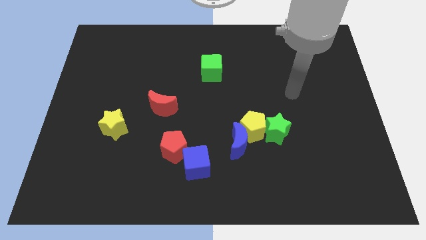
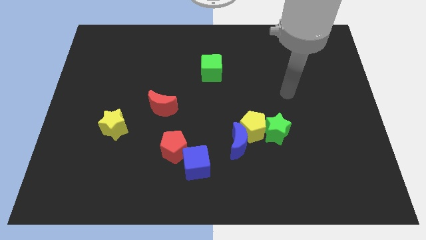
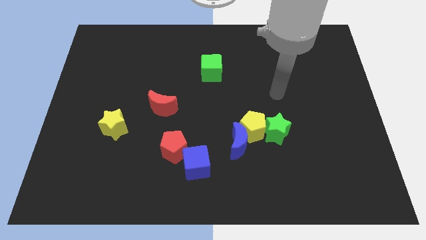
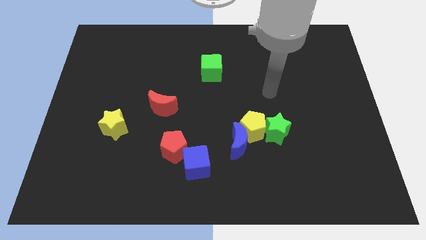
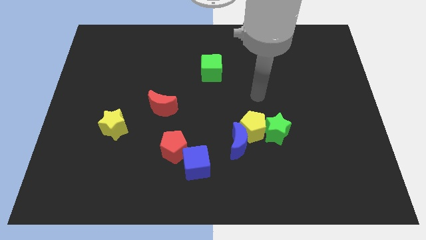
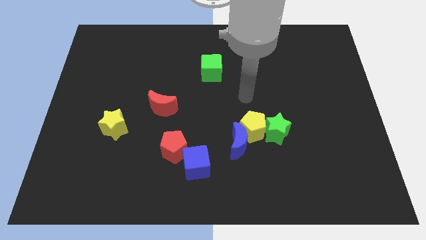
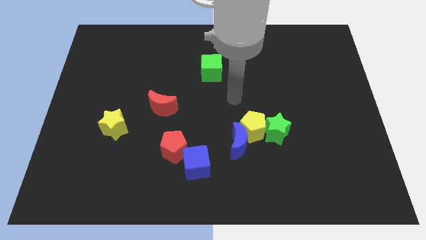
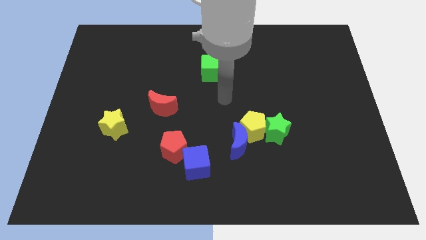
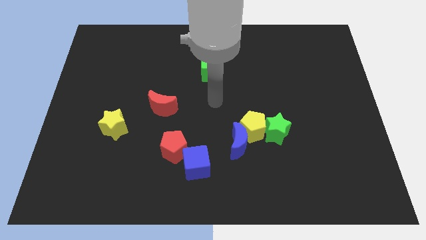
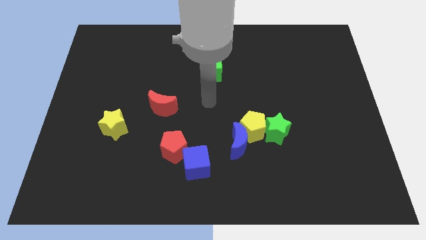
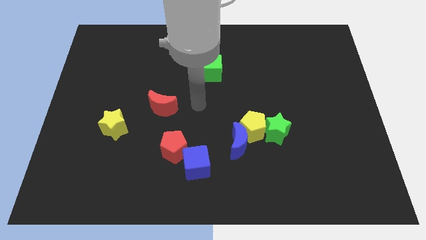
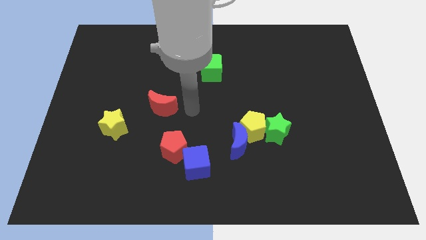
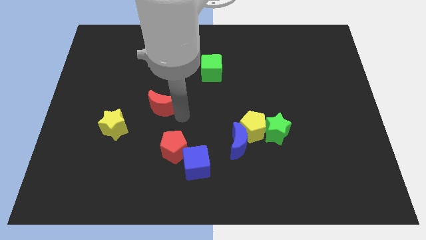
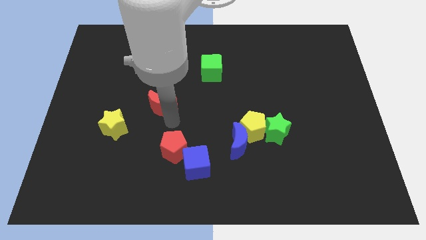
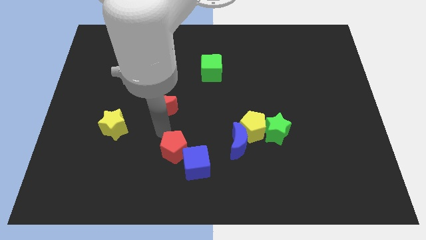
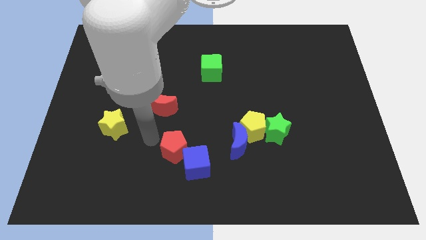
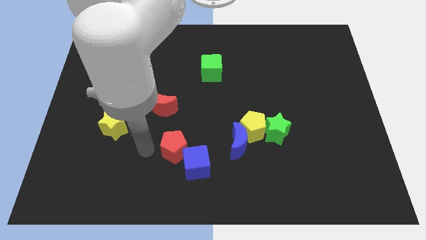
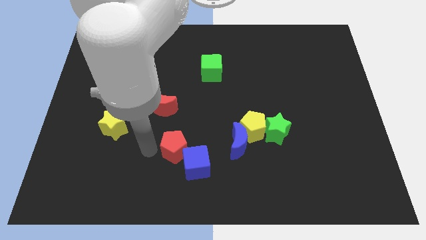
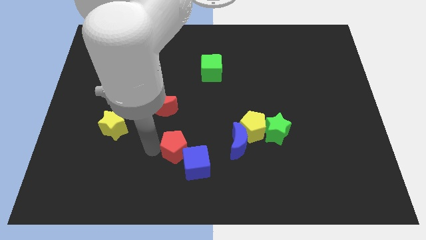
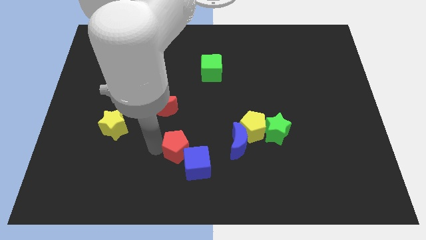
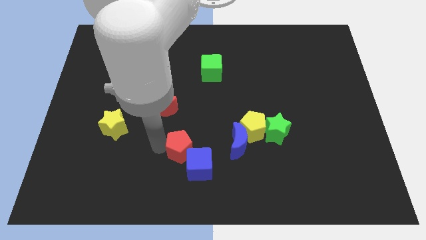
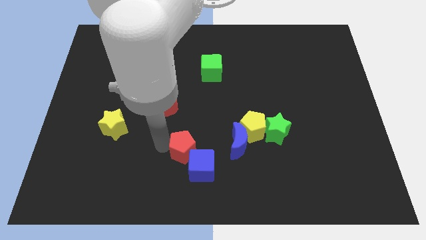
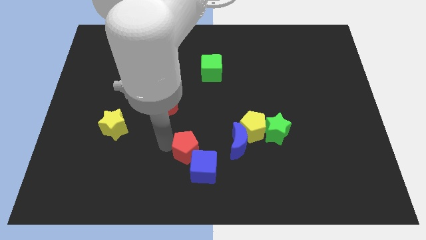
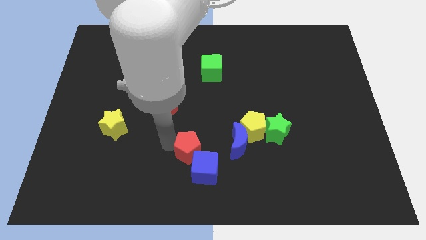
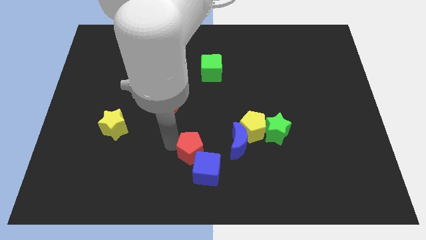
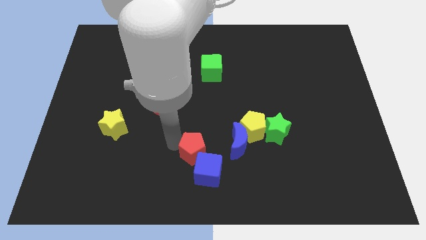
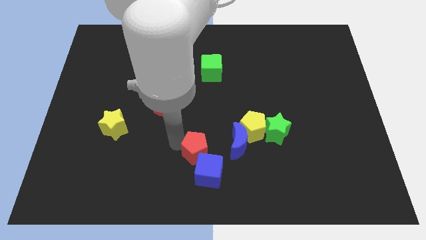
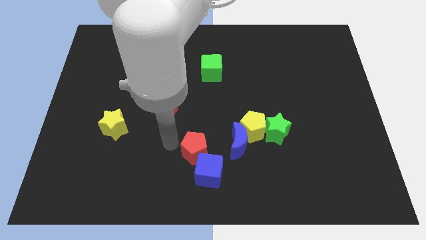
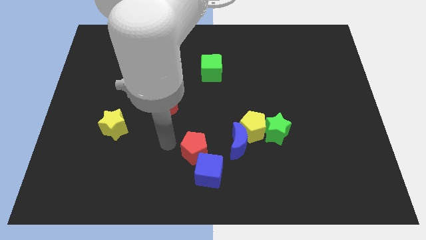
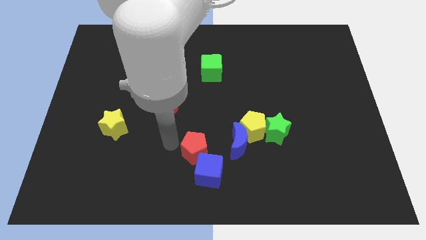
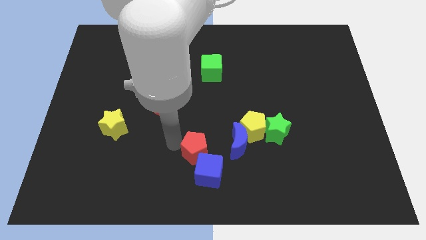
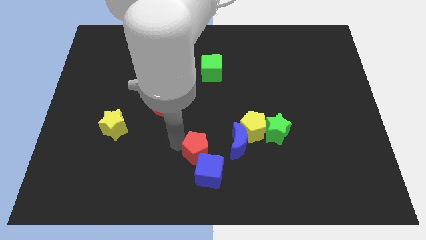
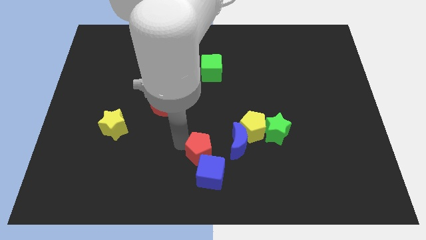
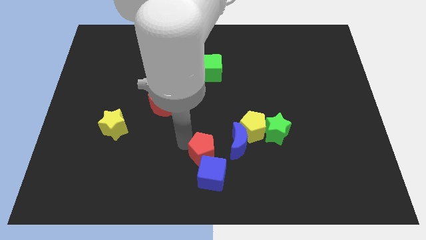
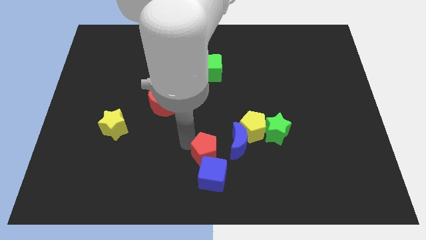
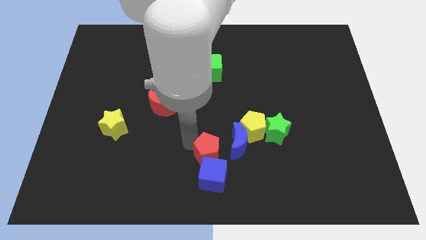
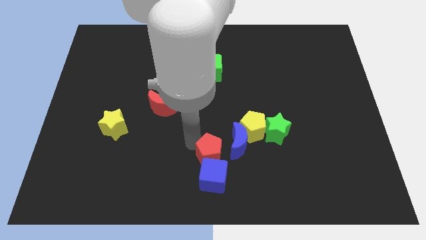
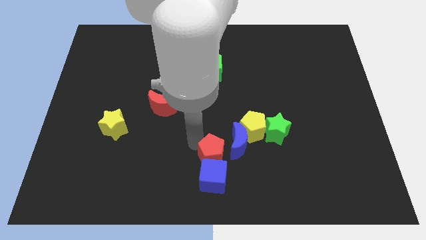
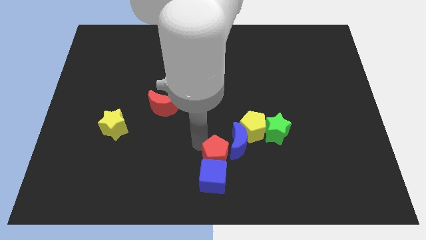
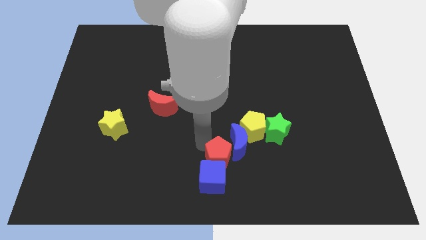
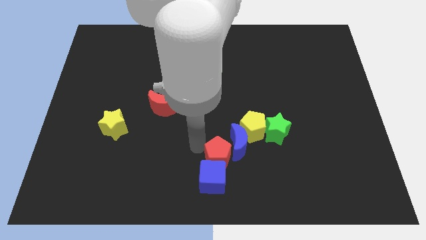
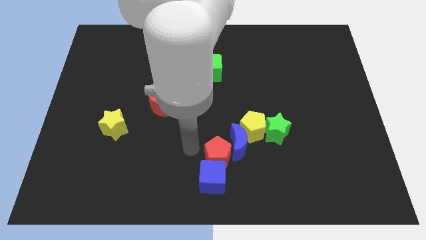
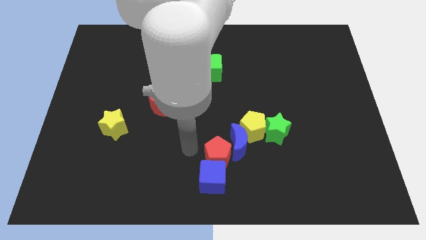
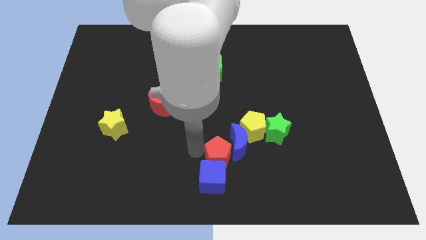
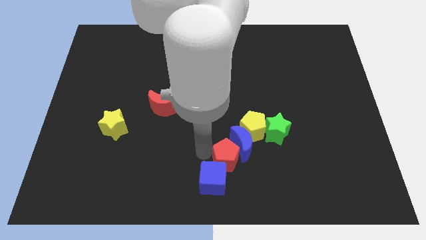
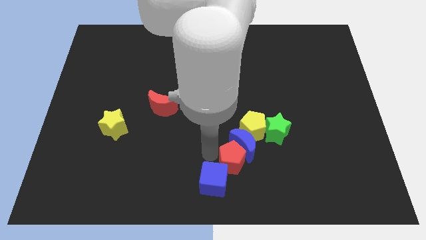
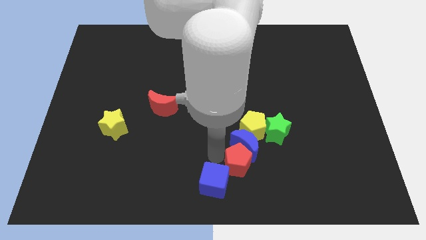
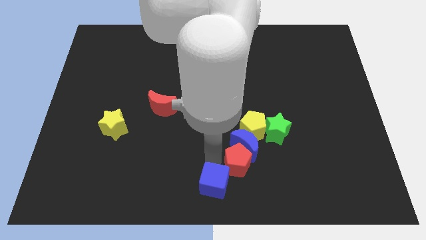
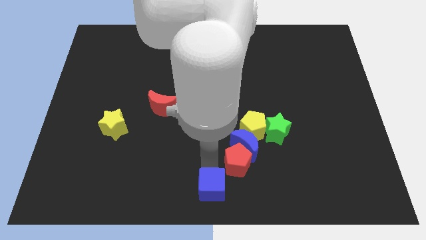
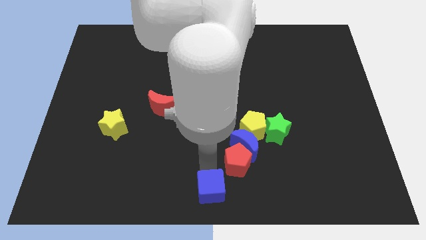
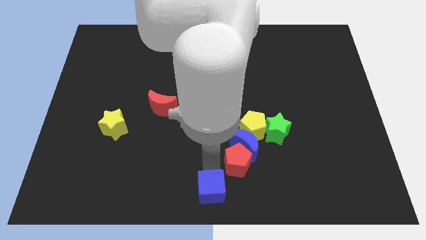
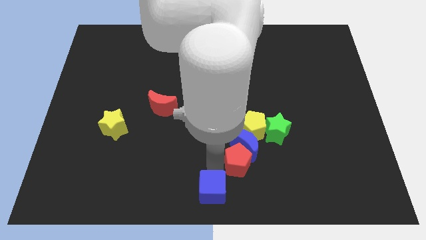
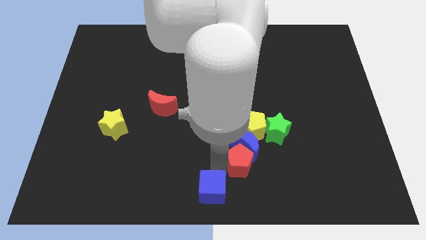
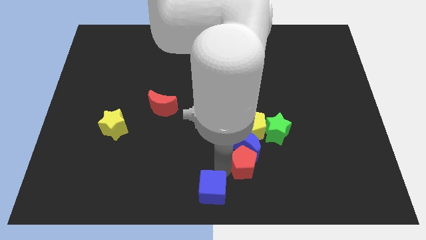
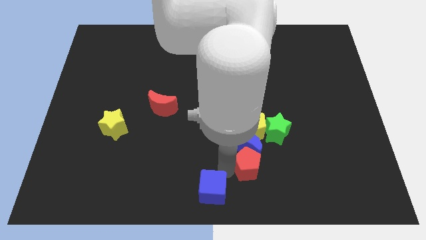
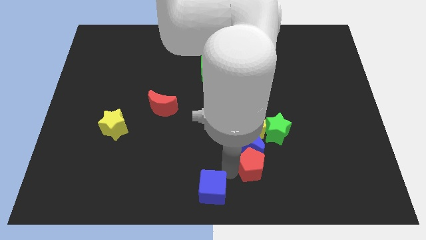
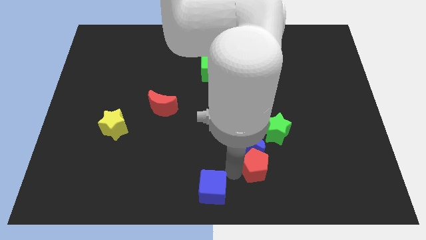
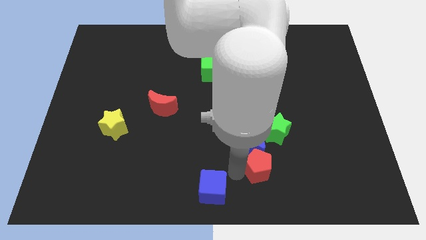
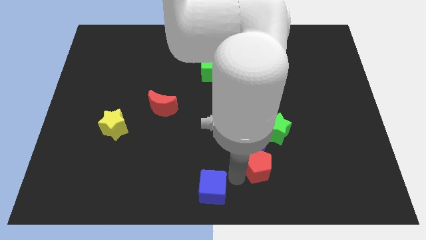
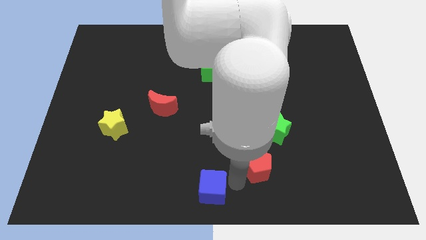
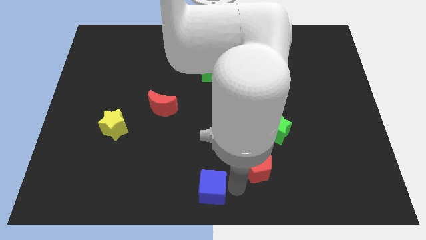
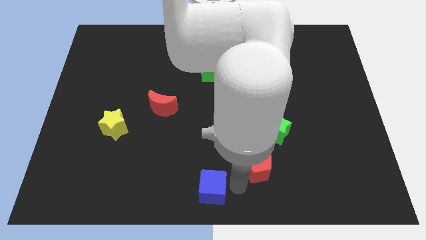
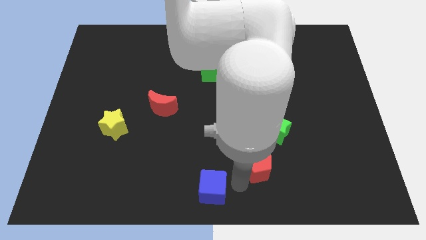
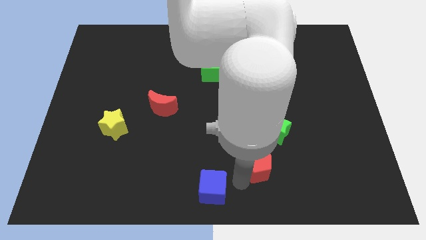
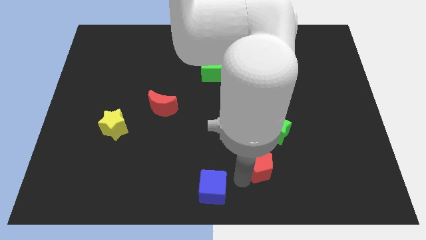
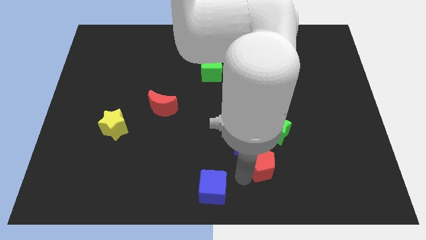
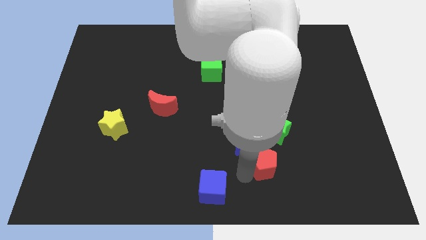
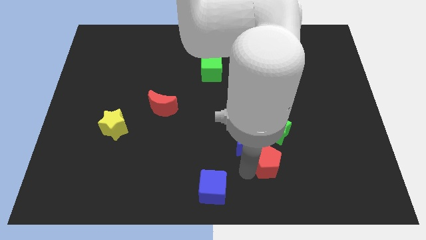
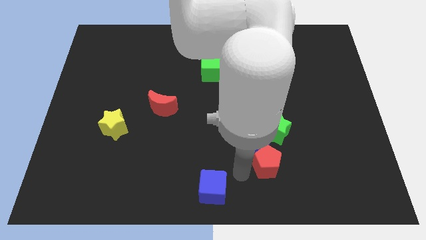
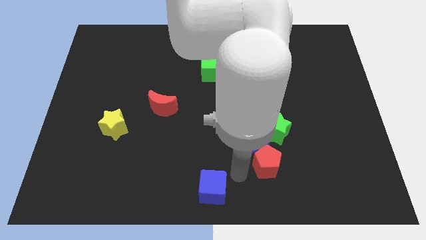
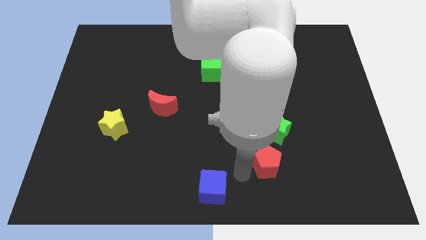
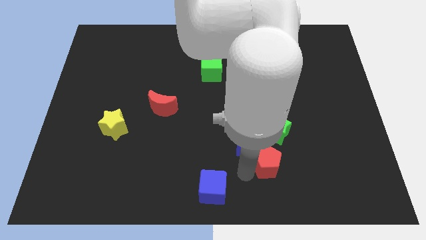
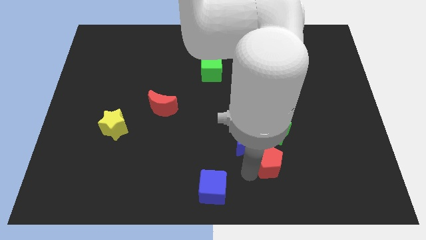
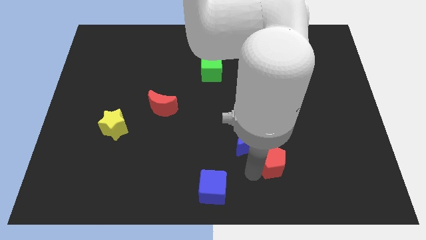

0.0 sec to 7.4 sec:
slide the red pentagon to the right

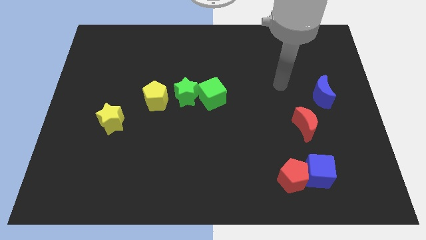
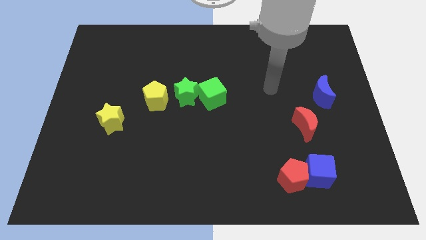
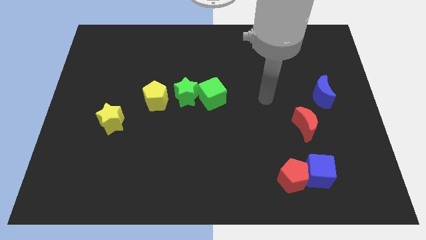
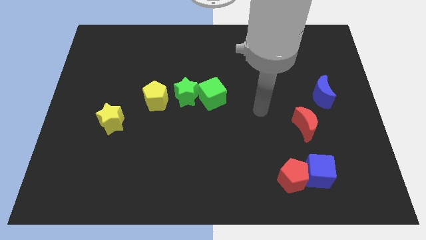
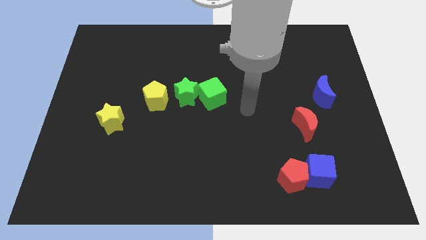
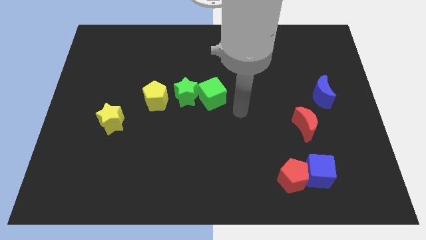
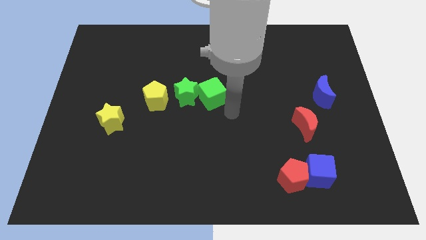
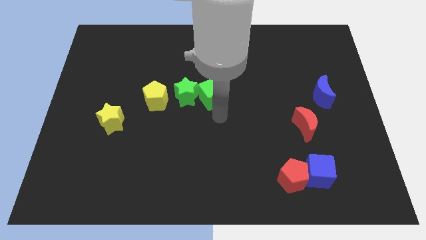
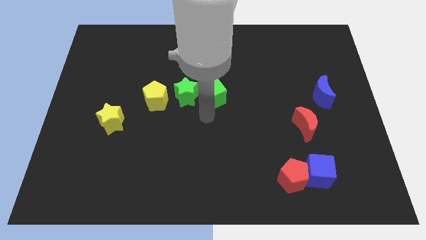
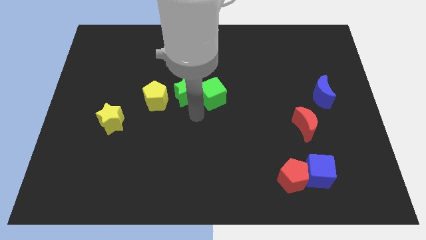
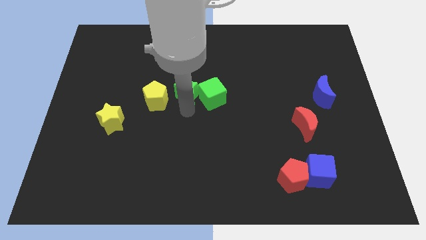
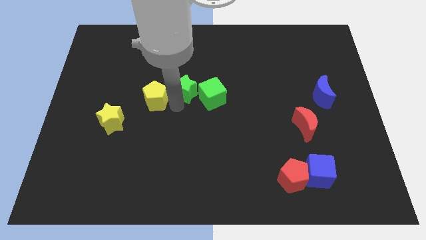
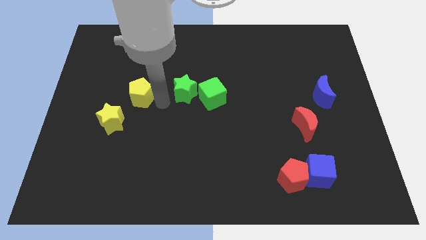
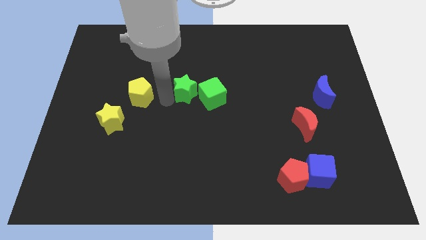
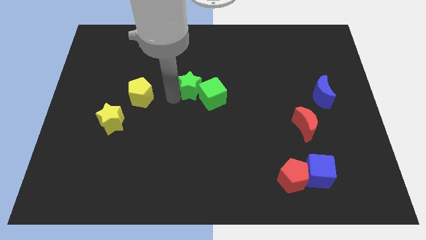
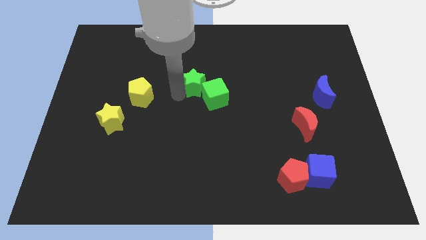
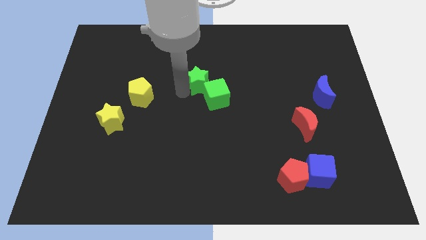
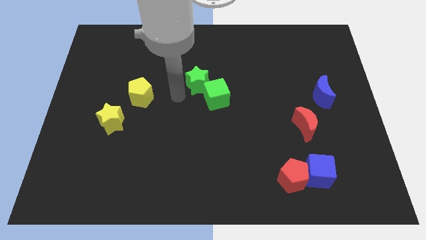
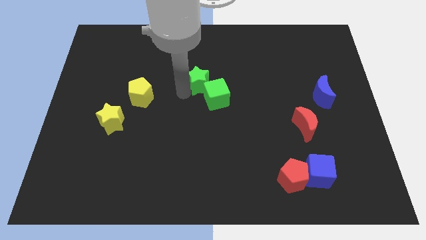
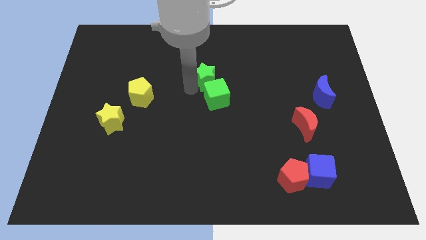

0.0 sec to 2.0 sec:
move the green star upwards and to the right slightly
